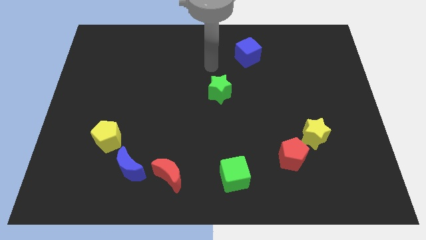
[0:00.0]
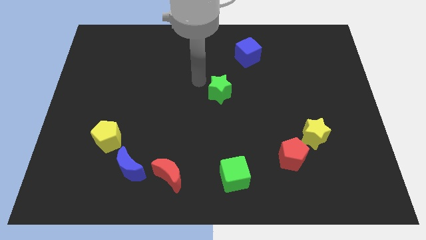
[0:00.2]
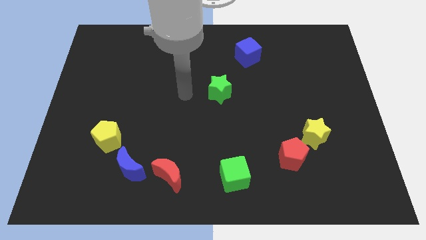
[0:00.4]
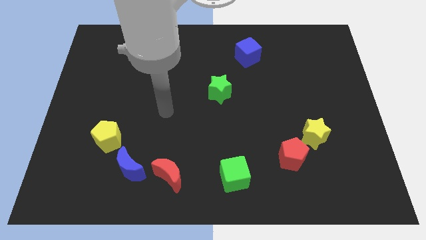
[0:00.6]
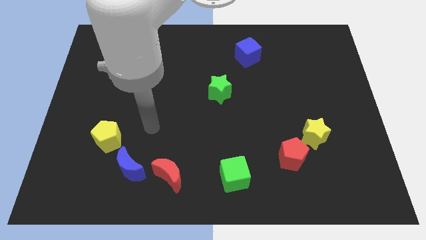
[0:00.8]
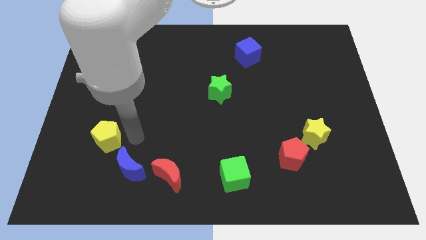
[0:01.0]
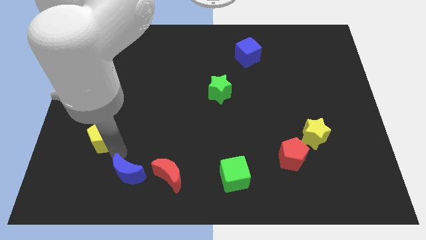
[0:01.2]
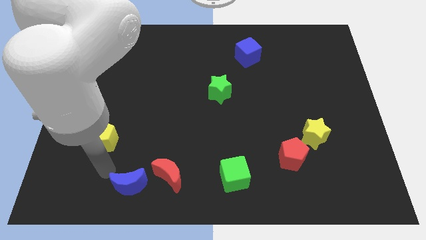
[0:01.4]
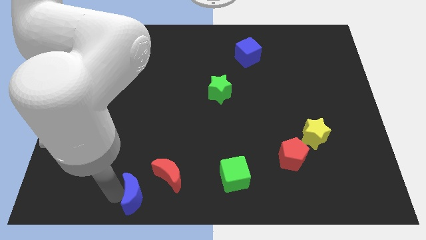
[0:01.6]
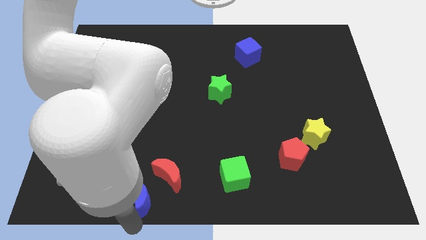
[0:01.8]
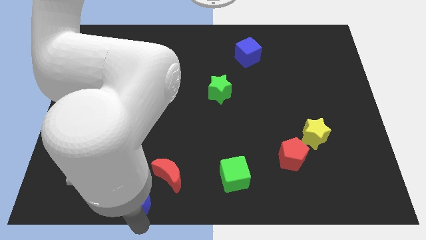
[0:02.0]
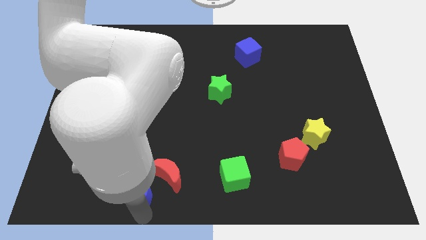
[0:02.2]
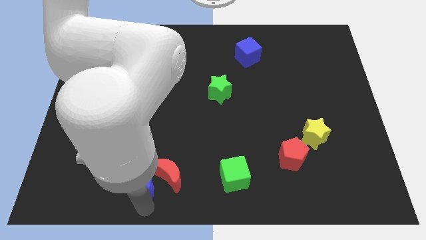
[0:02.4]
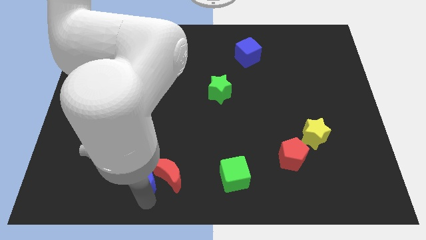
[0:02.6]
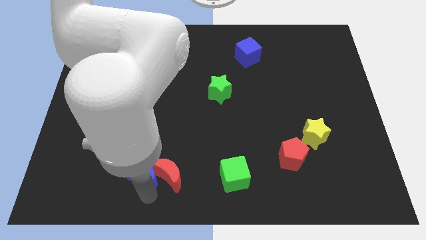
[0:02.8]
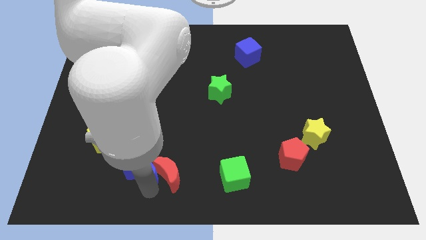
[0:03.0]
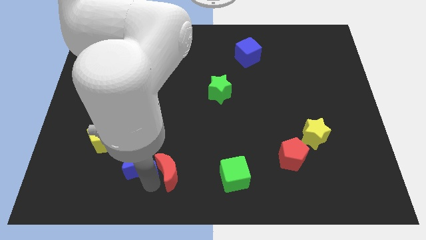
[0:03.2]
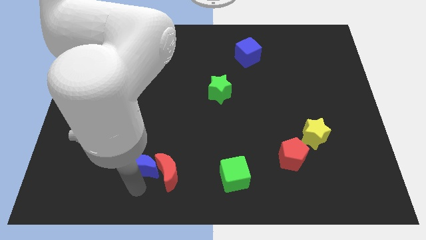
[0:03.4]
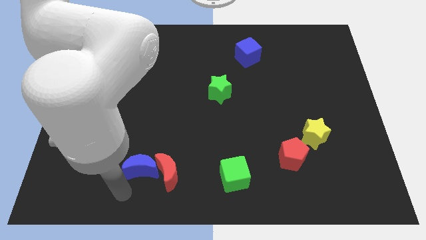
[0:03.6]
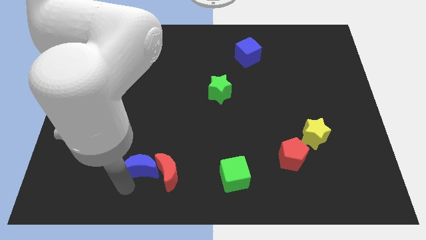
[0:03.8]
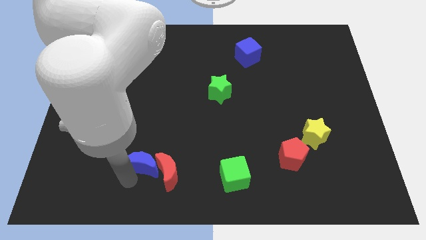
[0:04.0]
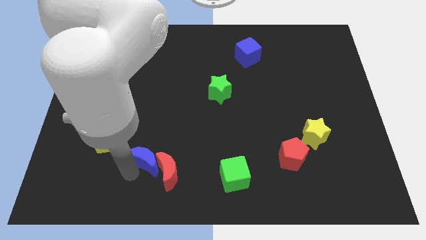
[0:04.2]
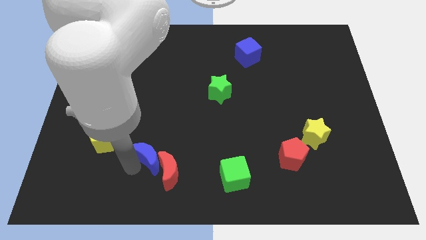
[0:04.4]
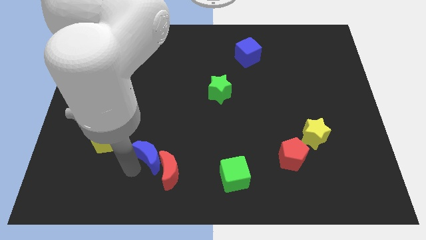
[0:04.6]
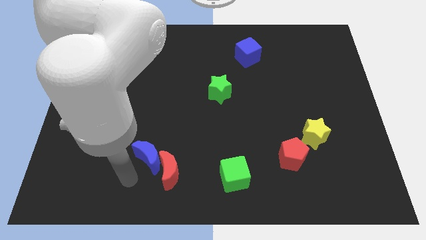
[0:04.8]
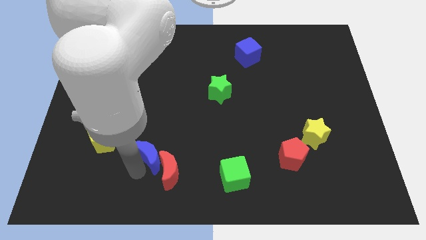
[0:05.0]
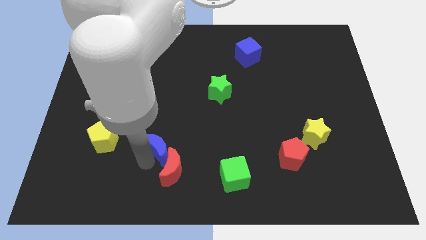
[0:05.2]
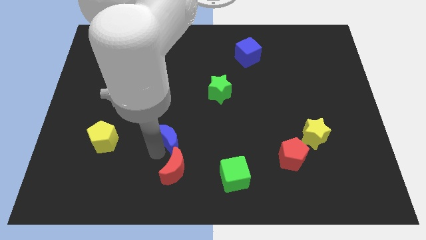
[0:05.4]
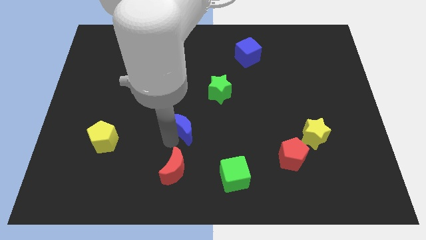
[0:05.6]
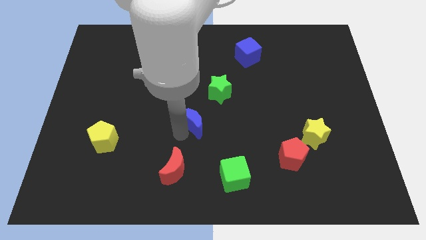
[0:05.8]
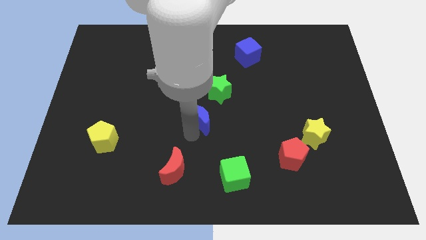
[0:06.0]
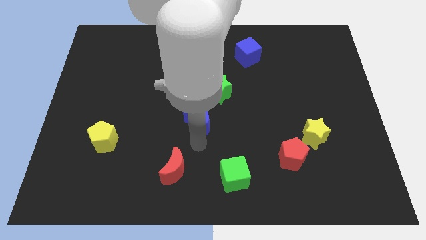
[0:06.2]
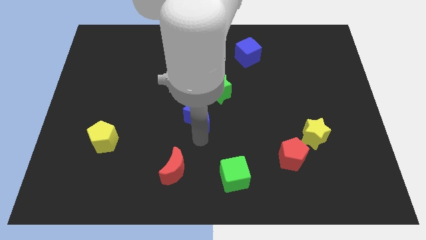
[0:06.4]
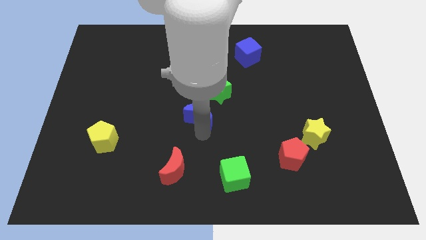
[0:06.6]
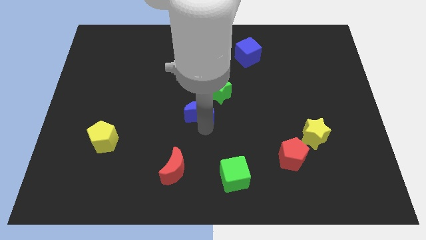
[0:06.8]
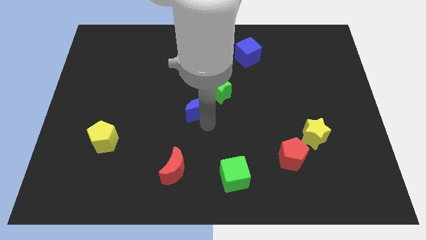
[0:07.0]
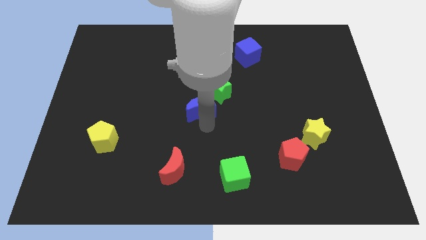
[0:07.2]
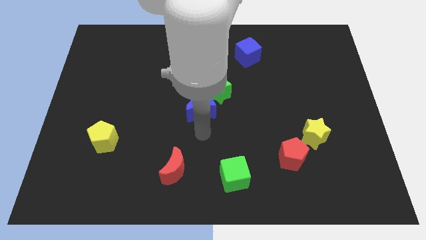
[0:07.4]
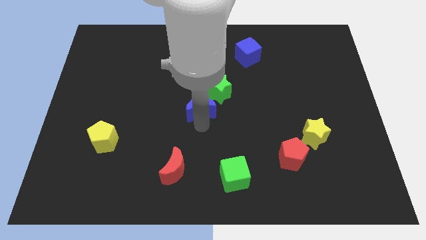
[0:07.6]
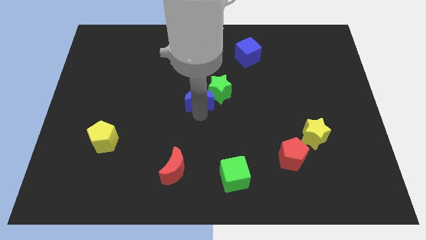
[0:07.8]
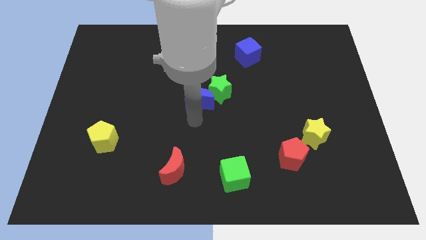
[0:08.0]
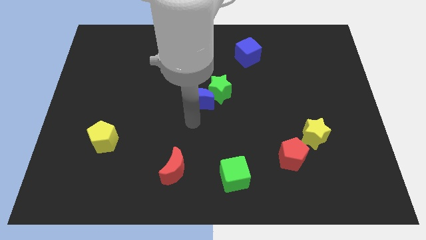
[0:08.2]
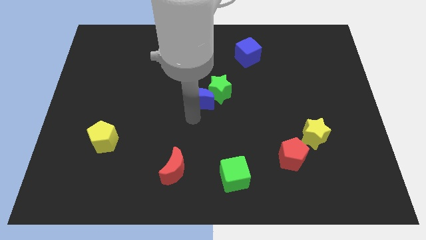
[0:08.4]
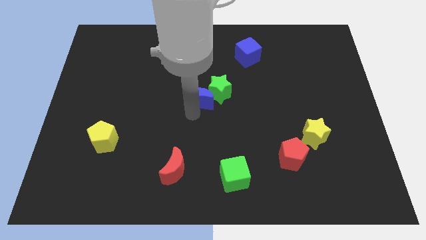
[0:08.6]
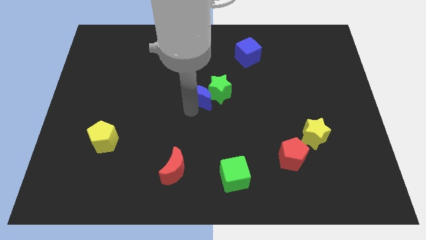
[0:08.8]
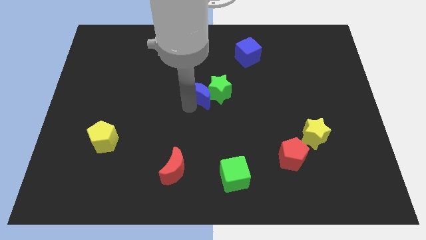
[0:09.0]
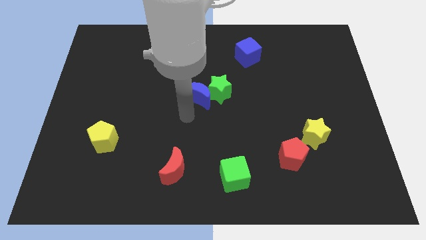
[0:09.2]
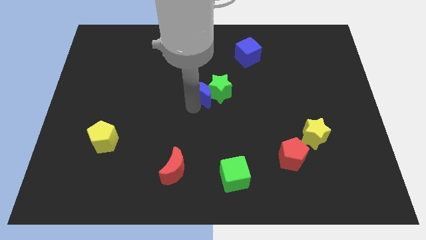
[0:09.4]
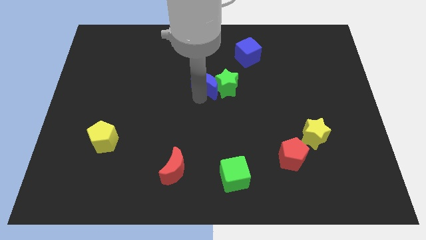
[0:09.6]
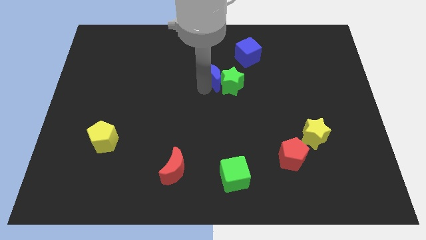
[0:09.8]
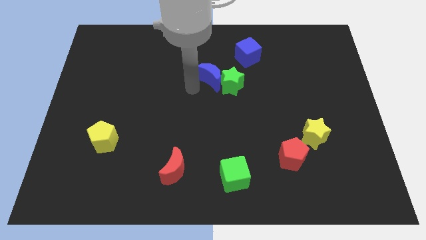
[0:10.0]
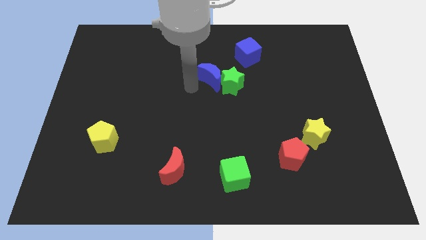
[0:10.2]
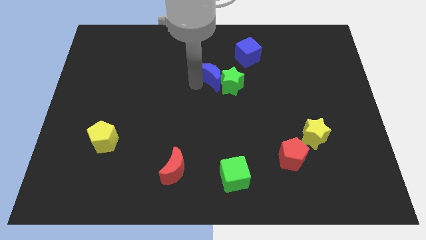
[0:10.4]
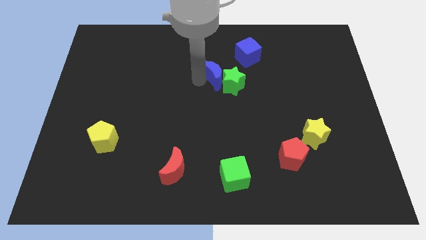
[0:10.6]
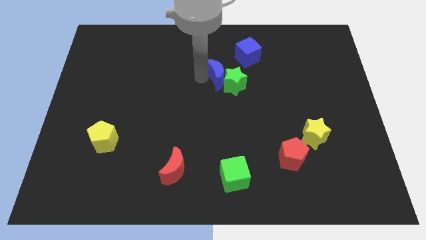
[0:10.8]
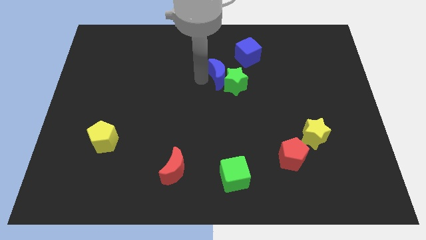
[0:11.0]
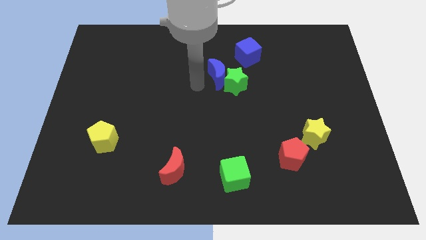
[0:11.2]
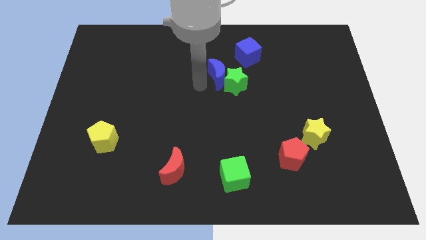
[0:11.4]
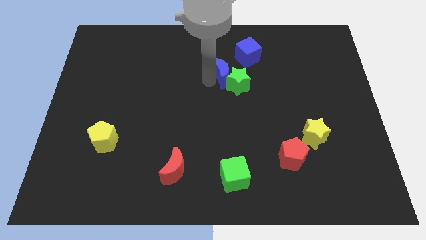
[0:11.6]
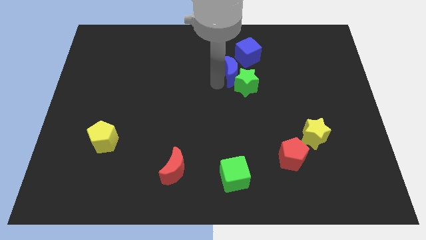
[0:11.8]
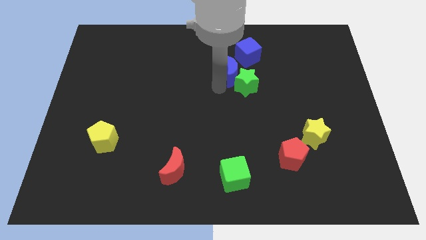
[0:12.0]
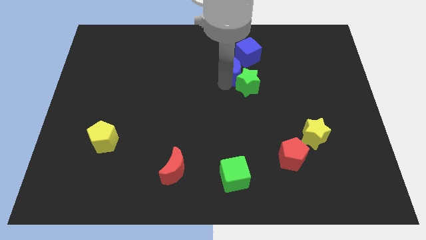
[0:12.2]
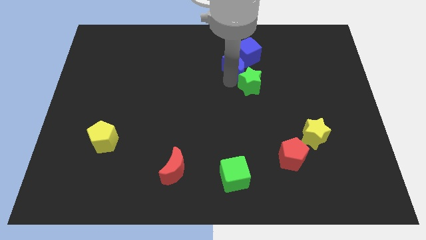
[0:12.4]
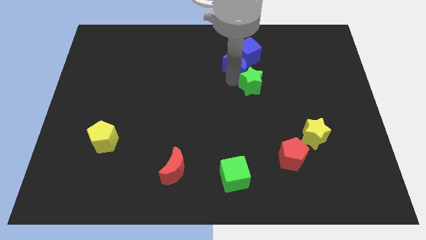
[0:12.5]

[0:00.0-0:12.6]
slide the blue moon next to the blue cube
